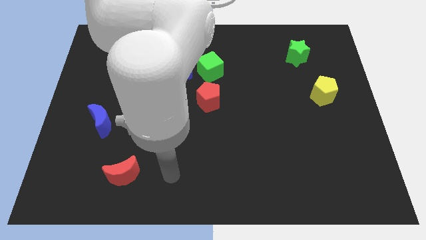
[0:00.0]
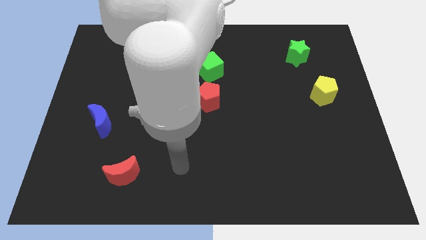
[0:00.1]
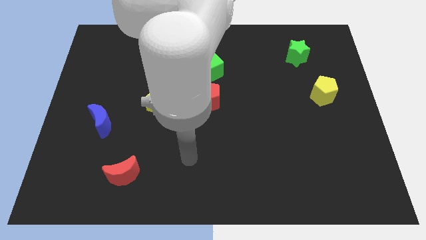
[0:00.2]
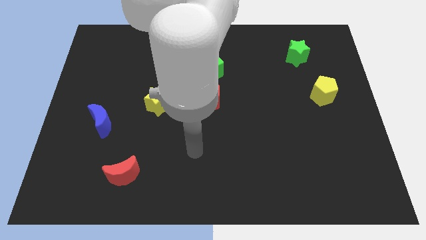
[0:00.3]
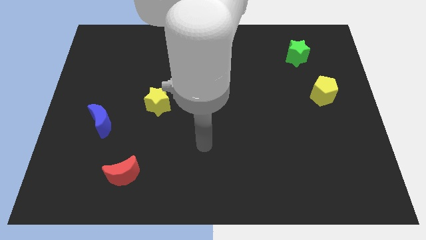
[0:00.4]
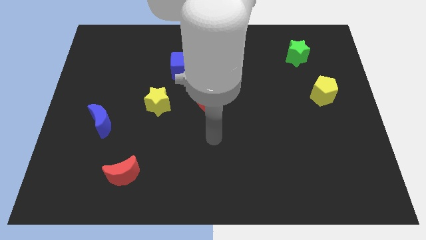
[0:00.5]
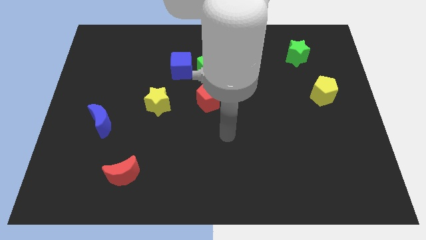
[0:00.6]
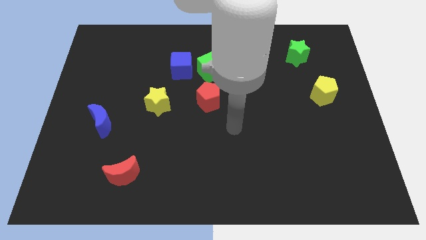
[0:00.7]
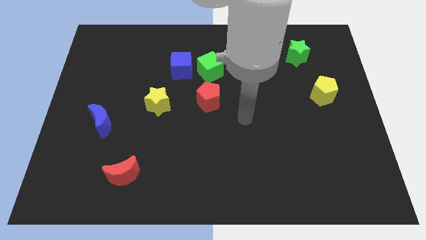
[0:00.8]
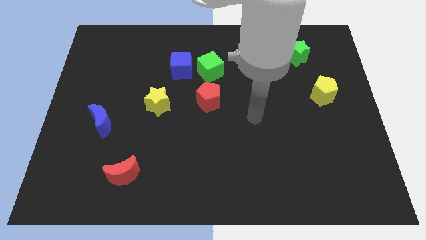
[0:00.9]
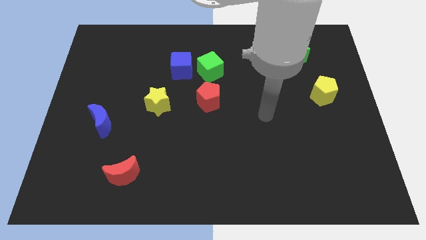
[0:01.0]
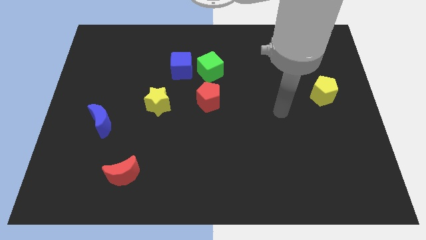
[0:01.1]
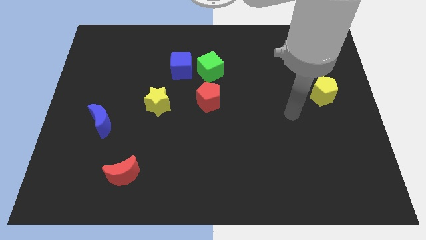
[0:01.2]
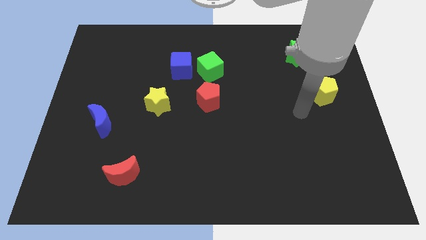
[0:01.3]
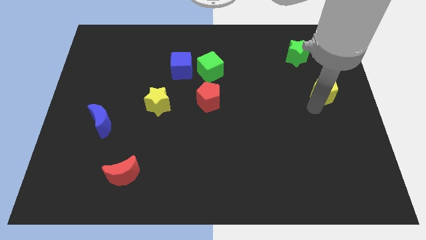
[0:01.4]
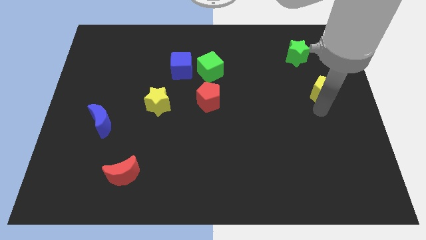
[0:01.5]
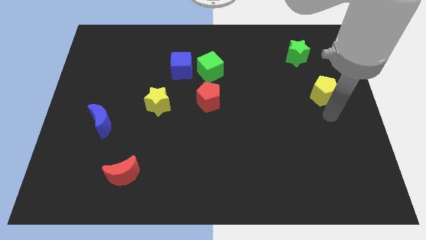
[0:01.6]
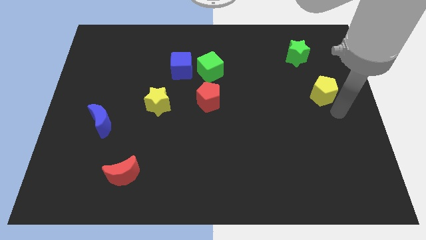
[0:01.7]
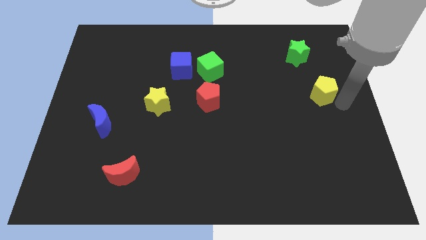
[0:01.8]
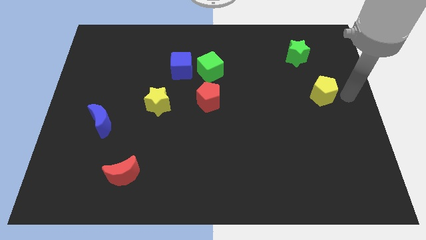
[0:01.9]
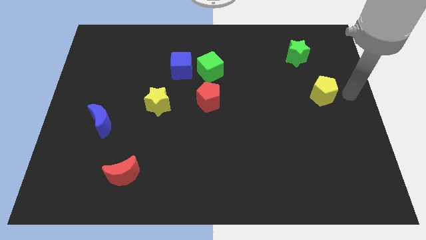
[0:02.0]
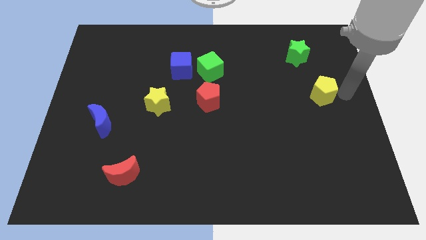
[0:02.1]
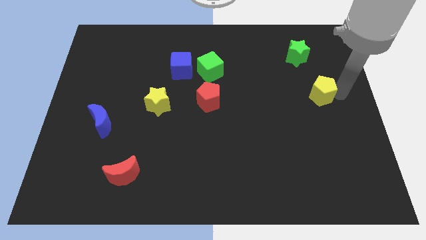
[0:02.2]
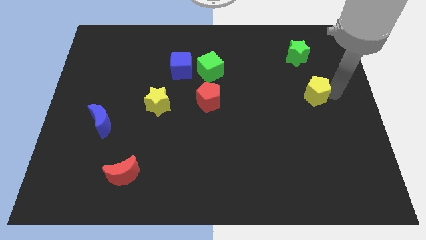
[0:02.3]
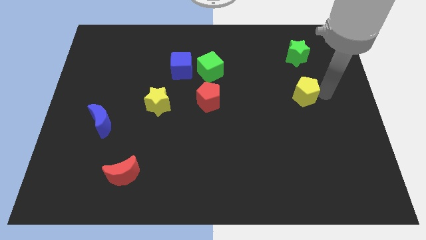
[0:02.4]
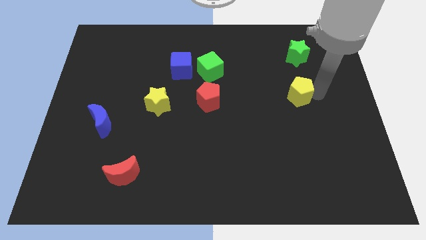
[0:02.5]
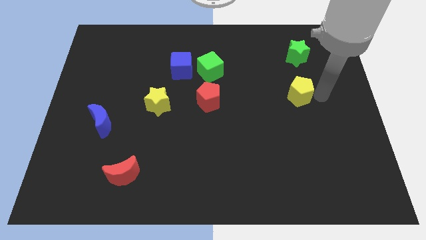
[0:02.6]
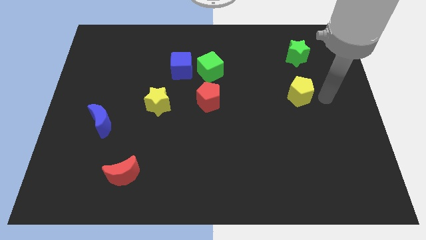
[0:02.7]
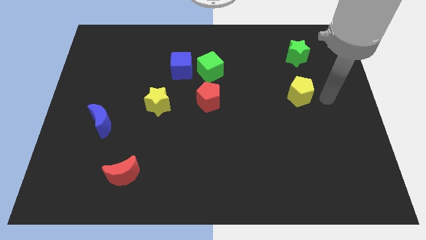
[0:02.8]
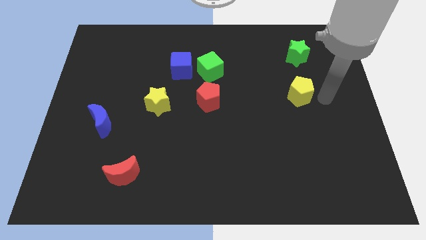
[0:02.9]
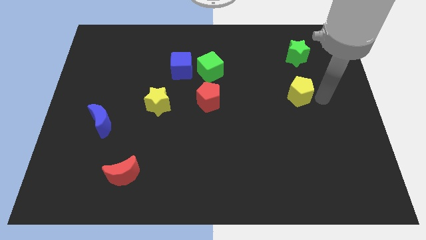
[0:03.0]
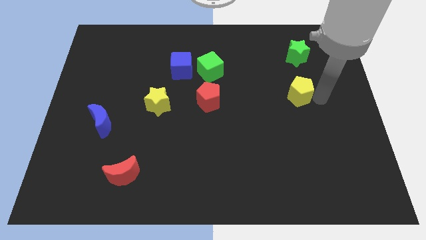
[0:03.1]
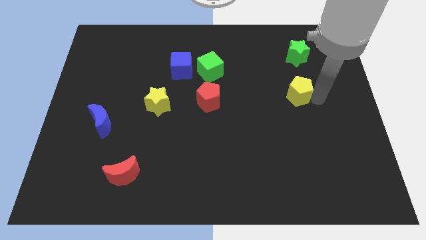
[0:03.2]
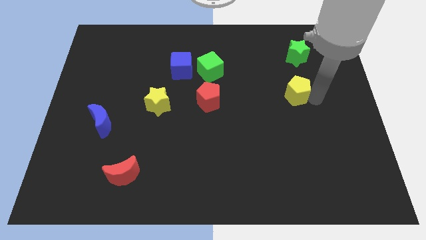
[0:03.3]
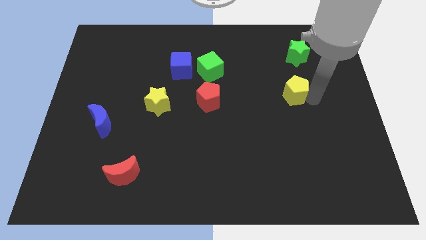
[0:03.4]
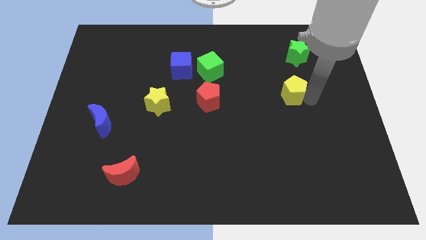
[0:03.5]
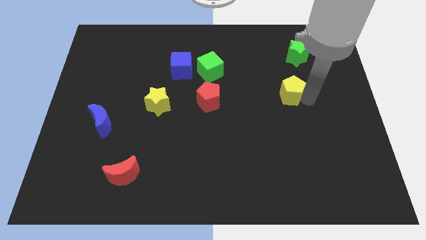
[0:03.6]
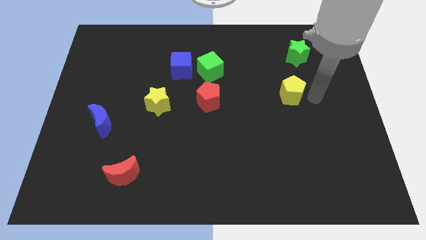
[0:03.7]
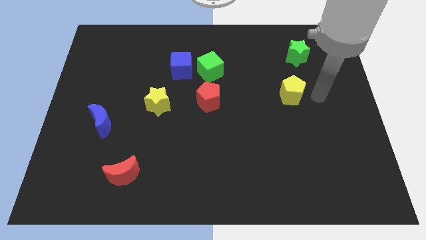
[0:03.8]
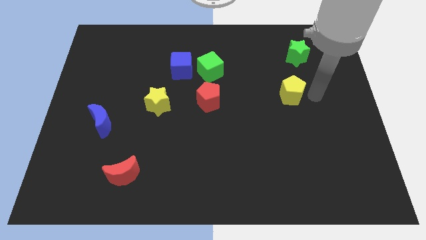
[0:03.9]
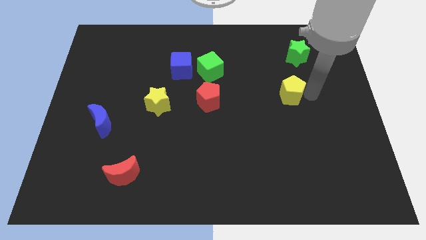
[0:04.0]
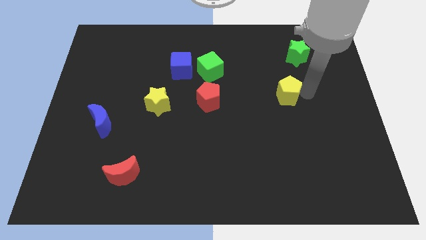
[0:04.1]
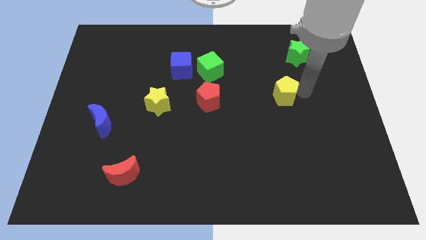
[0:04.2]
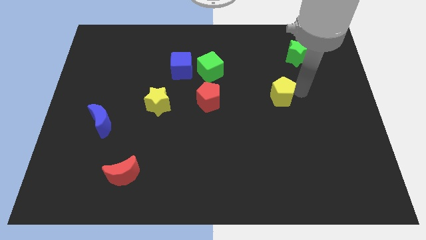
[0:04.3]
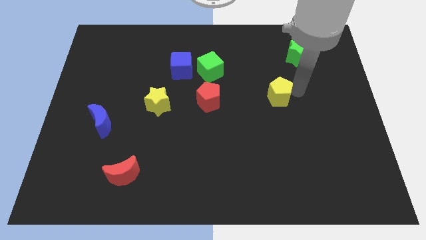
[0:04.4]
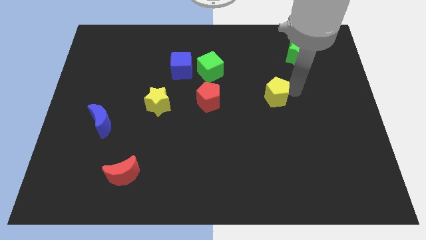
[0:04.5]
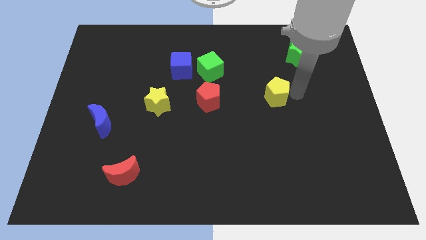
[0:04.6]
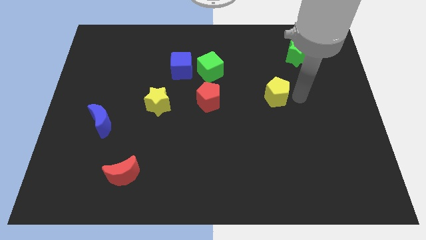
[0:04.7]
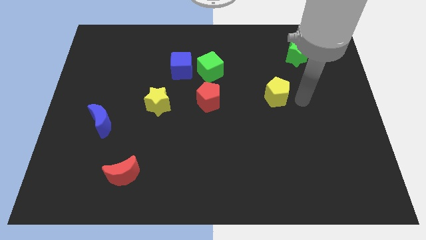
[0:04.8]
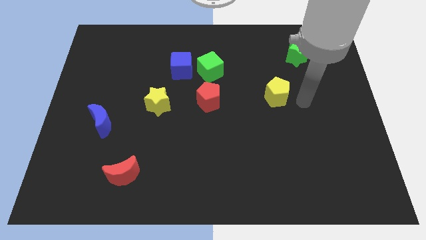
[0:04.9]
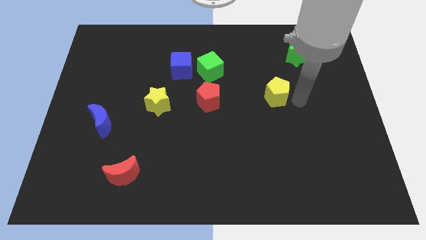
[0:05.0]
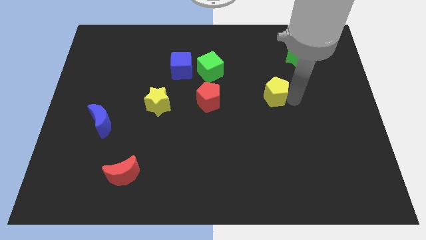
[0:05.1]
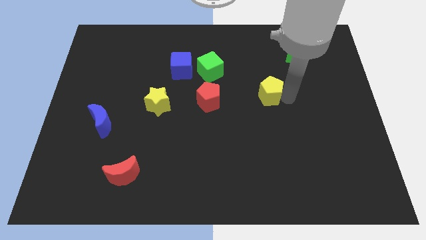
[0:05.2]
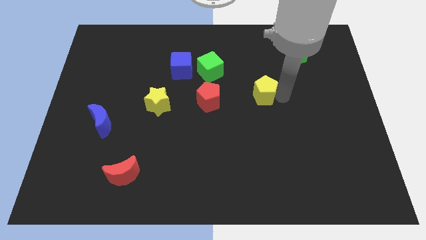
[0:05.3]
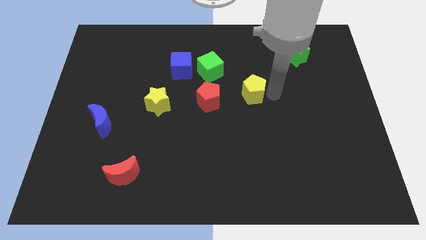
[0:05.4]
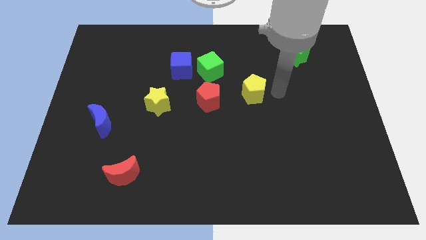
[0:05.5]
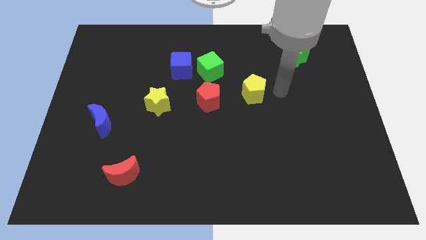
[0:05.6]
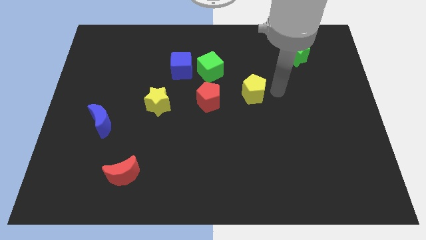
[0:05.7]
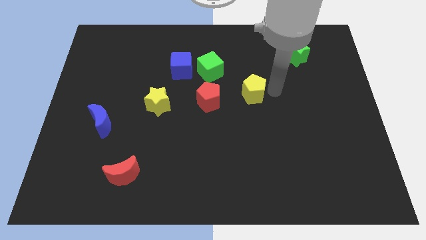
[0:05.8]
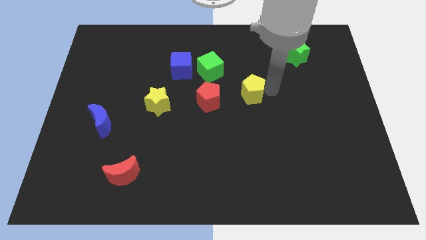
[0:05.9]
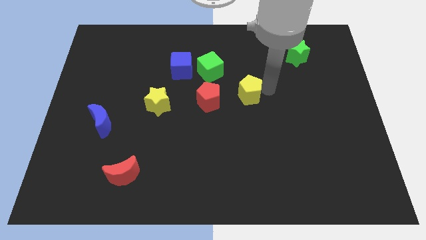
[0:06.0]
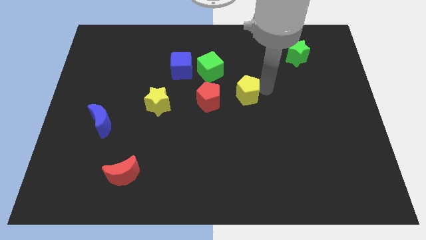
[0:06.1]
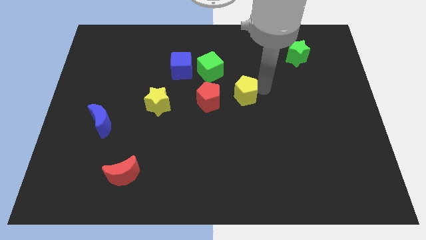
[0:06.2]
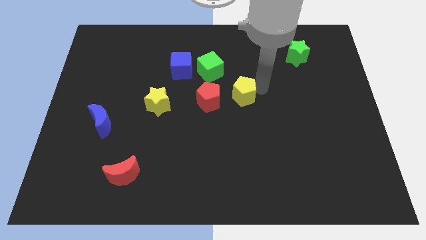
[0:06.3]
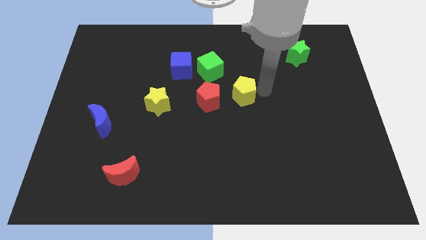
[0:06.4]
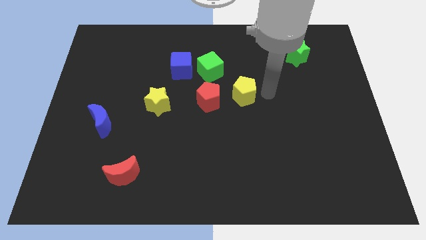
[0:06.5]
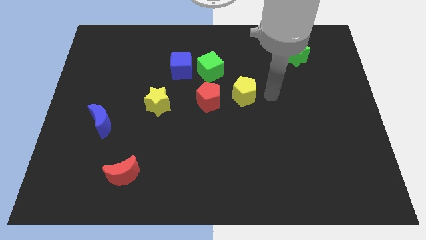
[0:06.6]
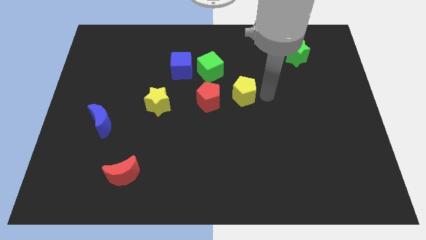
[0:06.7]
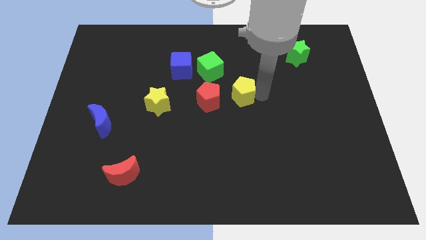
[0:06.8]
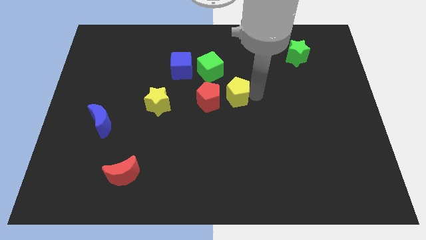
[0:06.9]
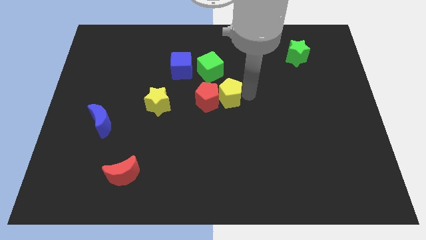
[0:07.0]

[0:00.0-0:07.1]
move the yellow pentagon next to the red pentagon
